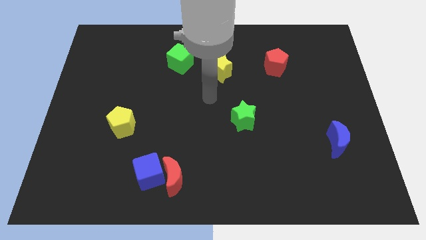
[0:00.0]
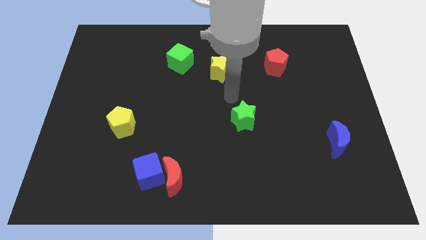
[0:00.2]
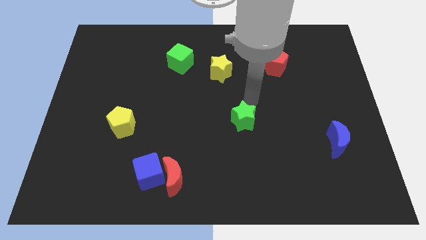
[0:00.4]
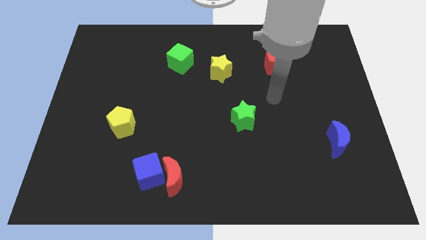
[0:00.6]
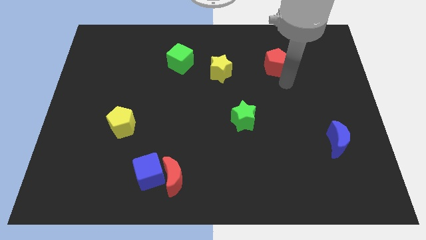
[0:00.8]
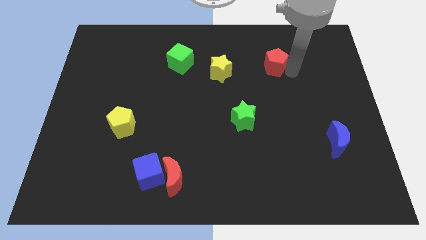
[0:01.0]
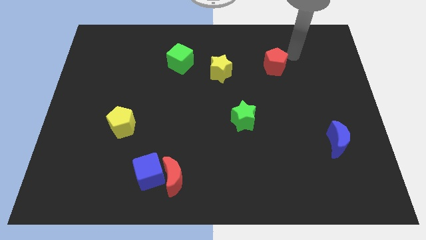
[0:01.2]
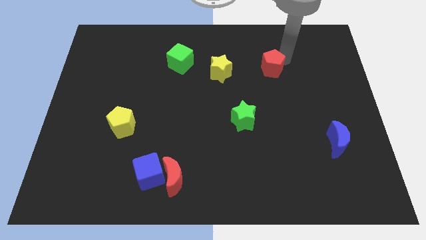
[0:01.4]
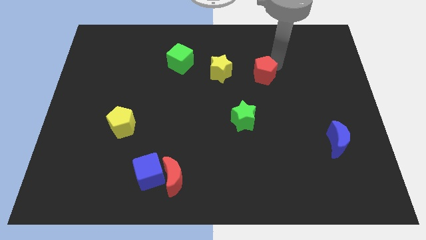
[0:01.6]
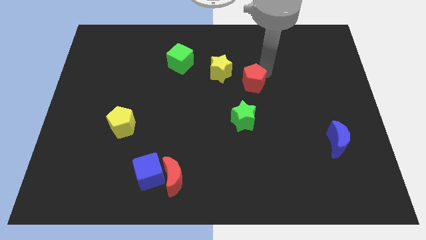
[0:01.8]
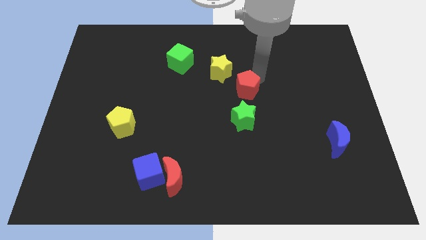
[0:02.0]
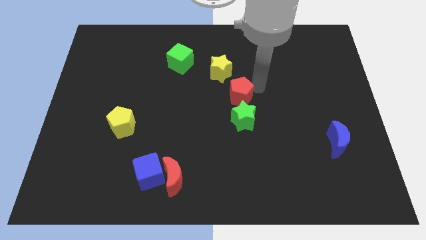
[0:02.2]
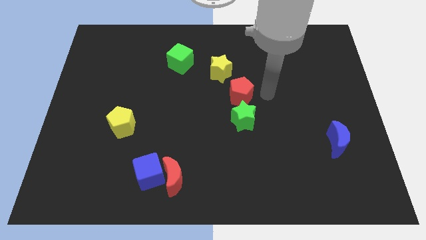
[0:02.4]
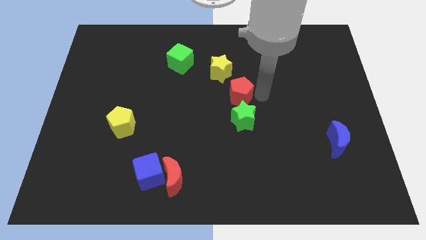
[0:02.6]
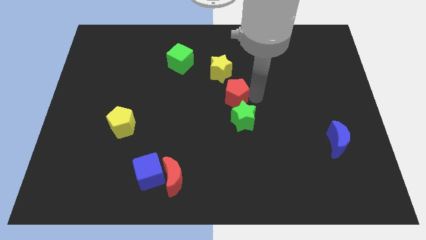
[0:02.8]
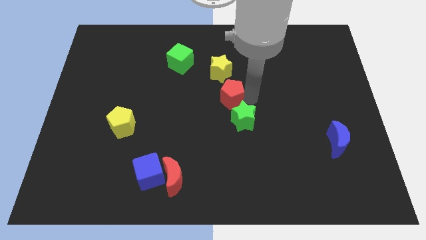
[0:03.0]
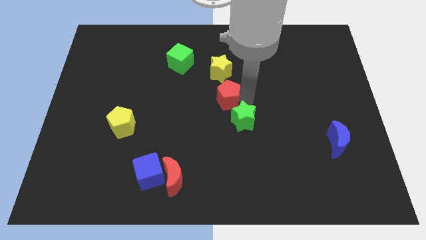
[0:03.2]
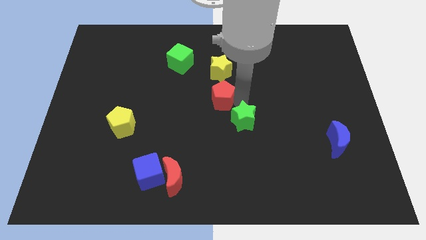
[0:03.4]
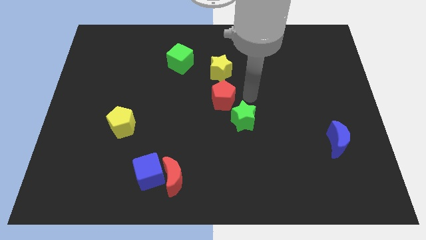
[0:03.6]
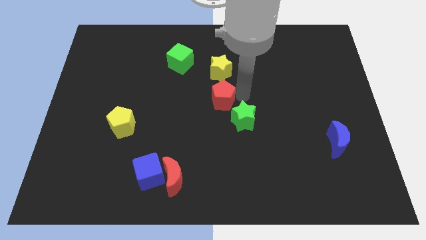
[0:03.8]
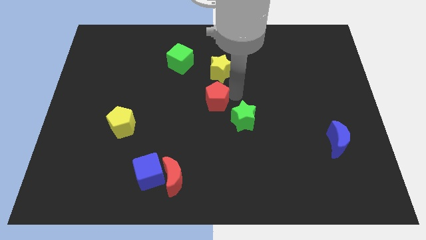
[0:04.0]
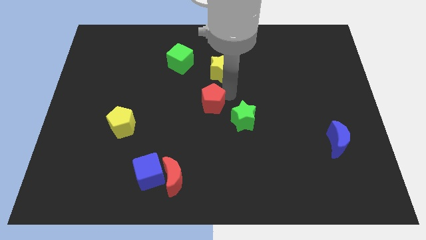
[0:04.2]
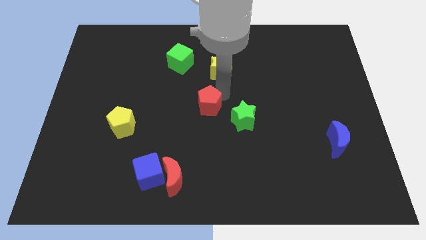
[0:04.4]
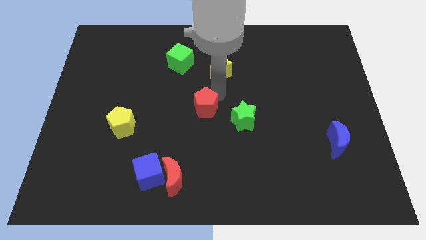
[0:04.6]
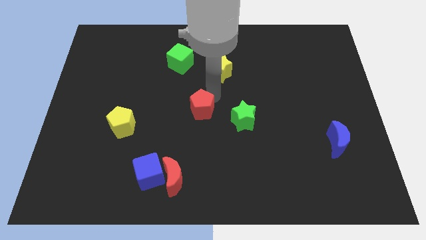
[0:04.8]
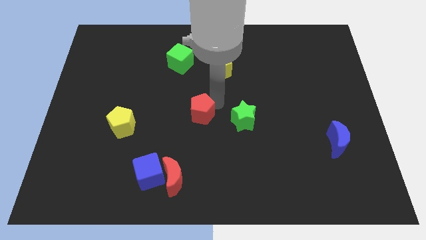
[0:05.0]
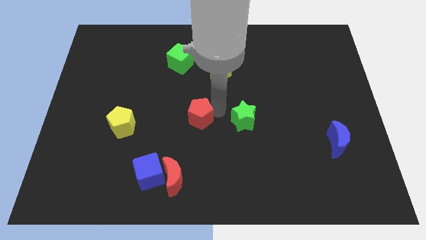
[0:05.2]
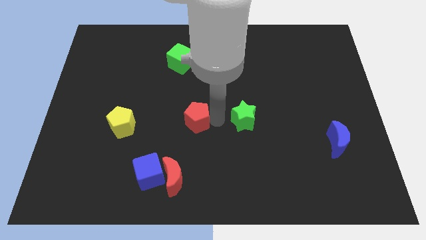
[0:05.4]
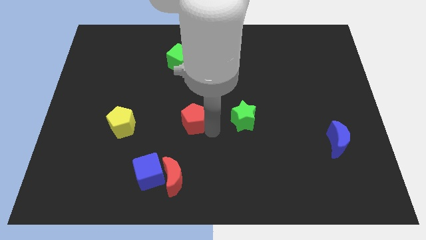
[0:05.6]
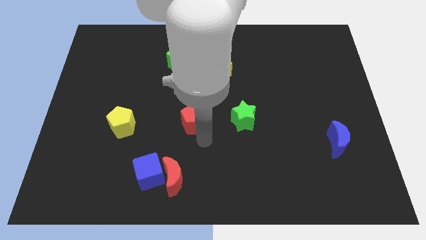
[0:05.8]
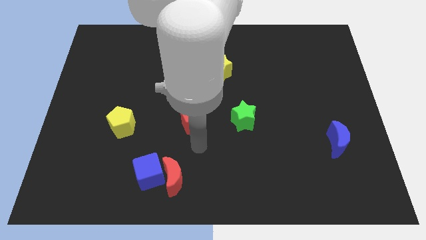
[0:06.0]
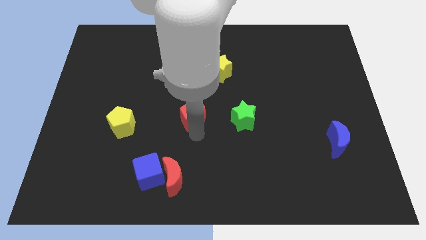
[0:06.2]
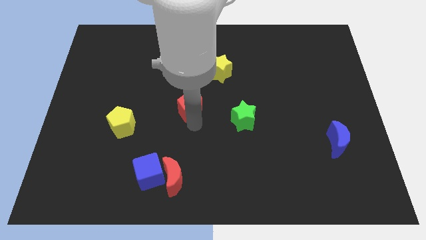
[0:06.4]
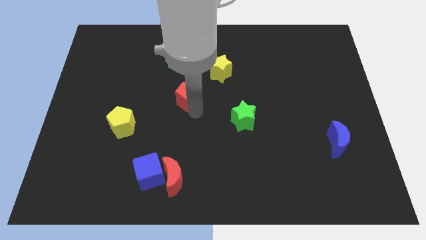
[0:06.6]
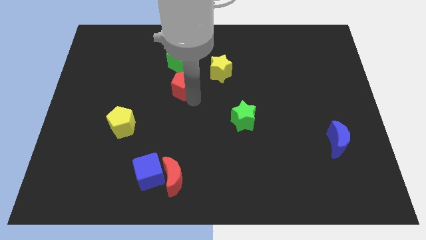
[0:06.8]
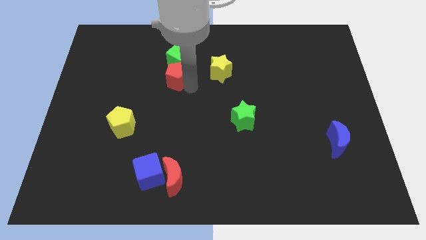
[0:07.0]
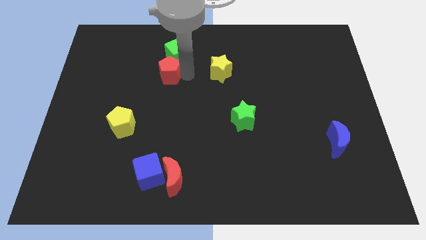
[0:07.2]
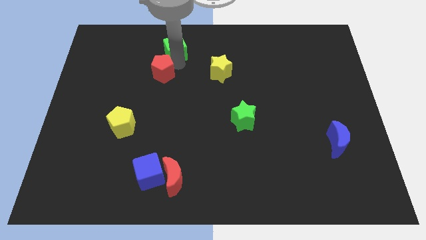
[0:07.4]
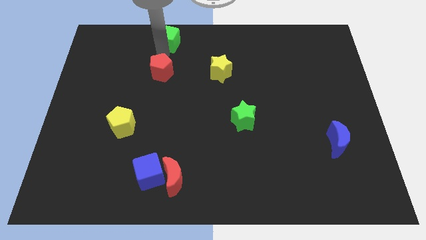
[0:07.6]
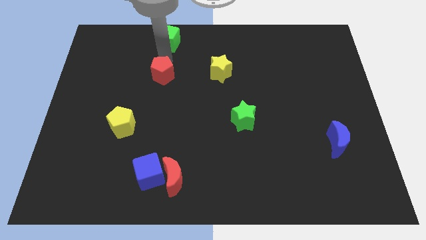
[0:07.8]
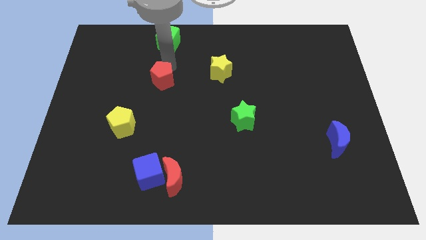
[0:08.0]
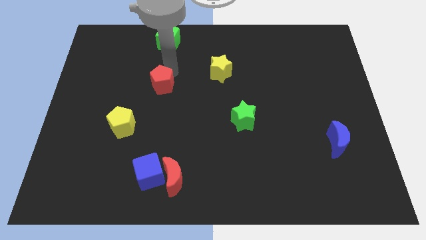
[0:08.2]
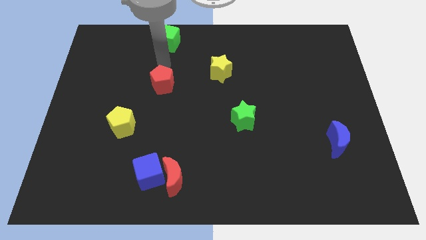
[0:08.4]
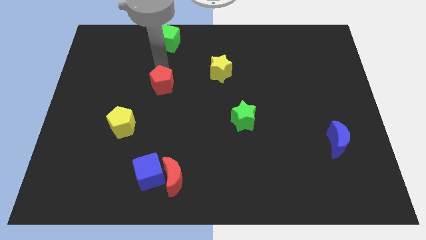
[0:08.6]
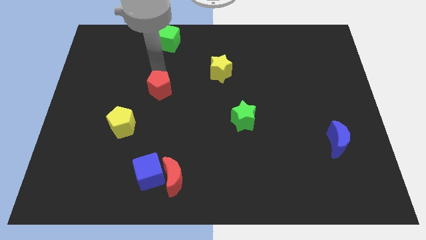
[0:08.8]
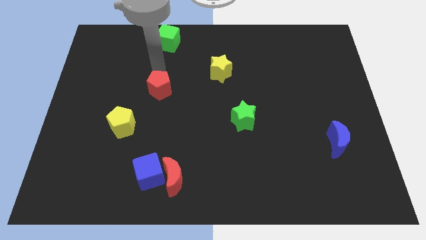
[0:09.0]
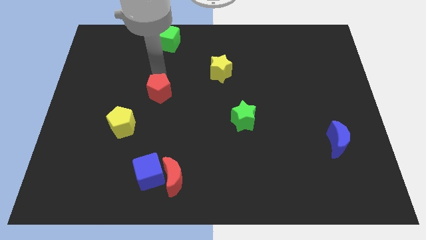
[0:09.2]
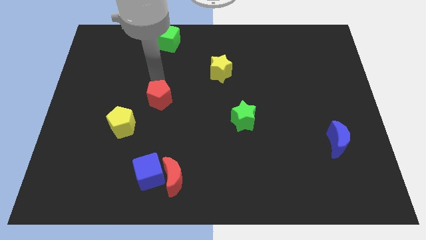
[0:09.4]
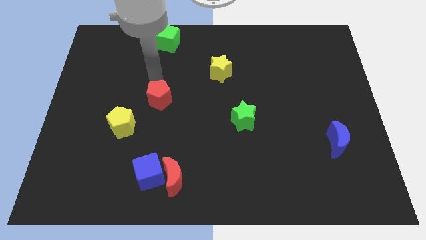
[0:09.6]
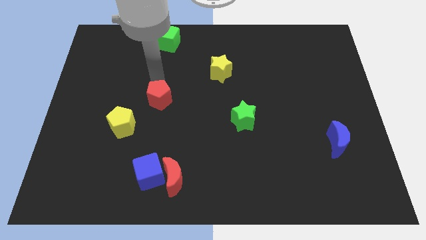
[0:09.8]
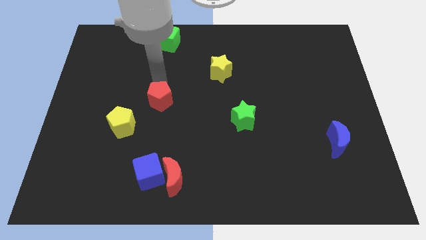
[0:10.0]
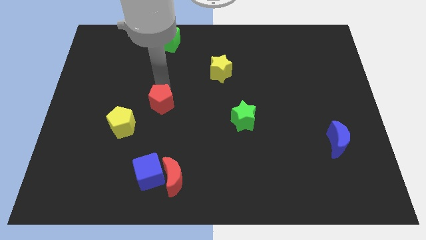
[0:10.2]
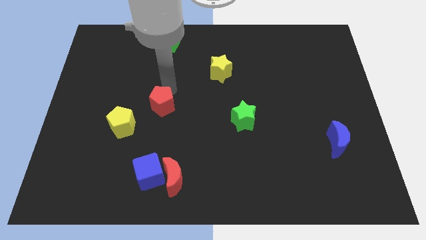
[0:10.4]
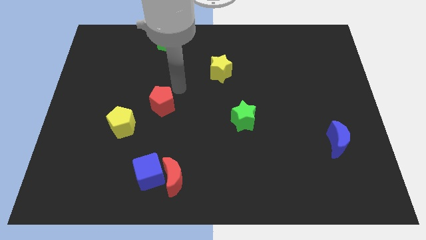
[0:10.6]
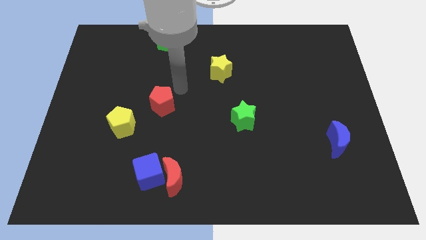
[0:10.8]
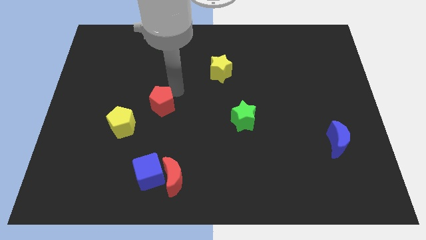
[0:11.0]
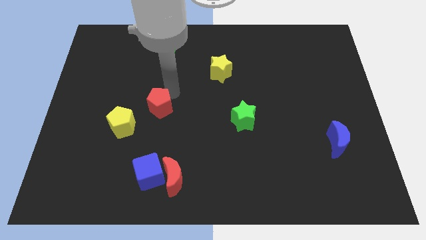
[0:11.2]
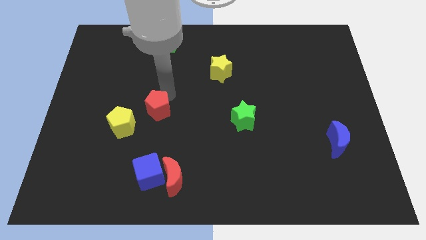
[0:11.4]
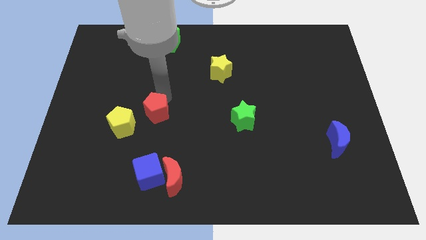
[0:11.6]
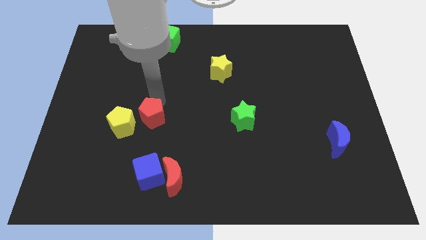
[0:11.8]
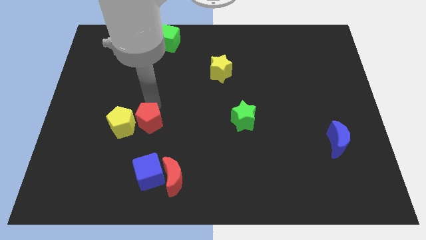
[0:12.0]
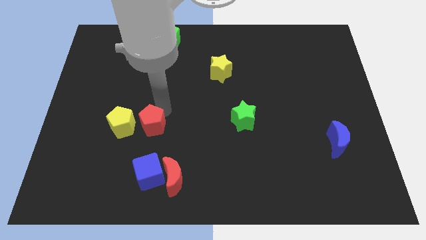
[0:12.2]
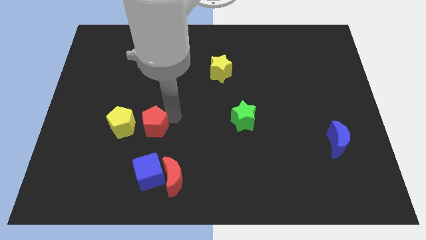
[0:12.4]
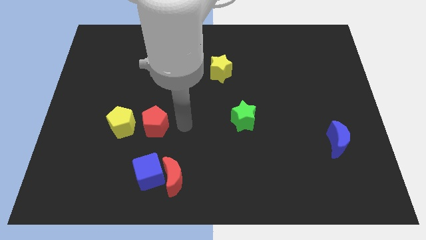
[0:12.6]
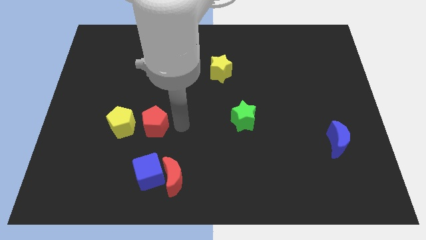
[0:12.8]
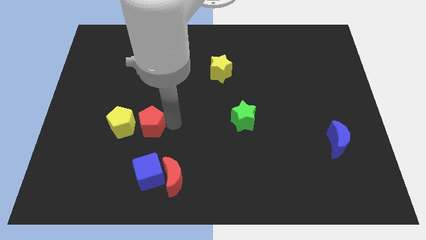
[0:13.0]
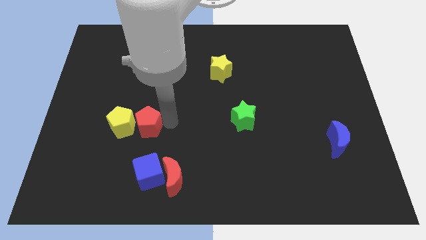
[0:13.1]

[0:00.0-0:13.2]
move the red pentagon next to the yellow pentagon
